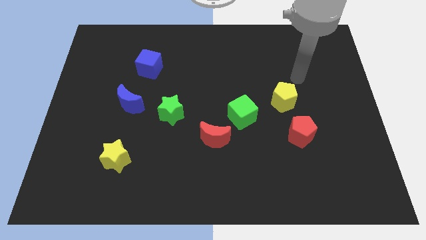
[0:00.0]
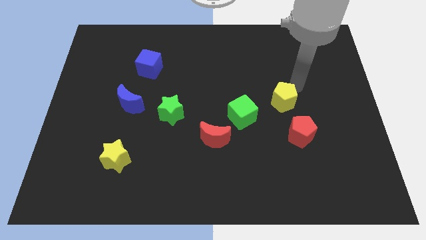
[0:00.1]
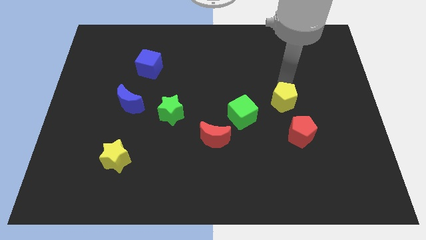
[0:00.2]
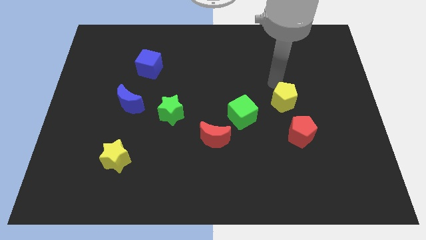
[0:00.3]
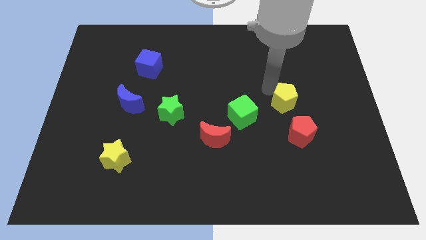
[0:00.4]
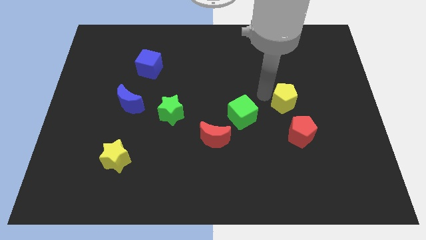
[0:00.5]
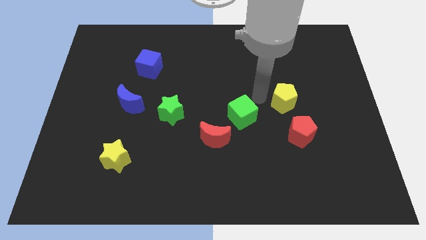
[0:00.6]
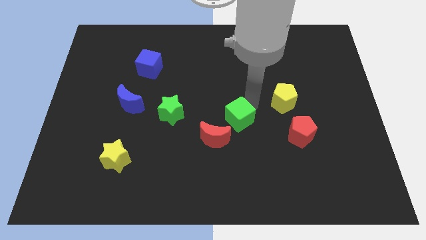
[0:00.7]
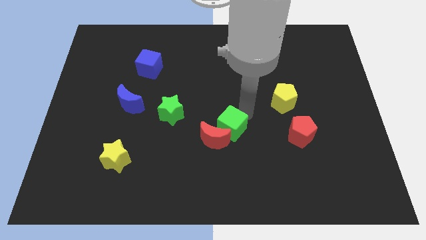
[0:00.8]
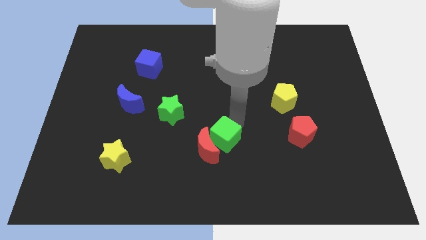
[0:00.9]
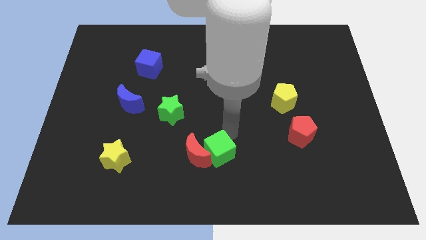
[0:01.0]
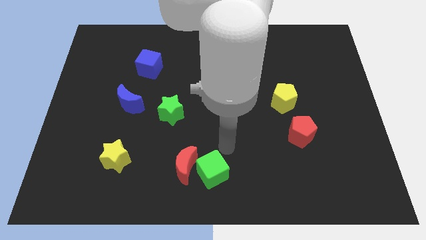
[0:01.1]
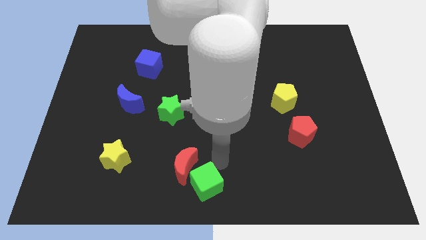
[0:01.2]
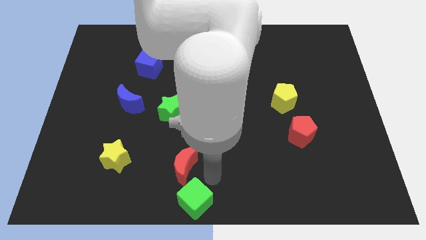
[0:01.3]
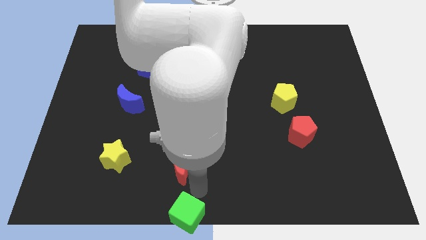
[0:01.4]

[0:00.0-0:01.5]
move the red moon away from the green cube

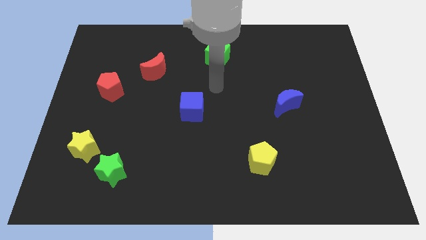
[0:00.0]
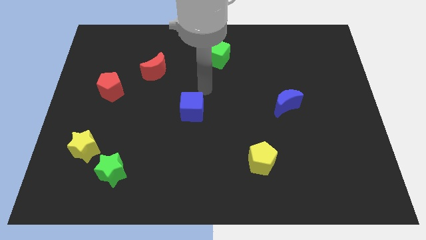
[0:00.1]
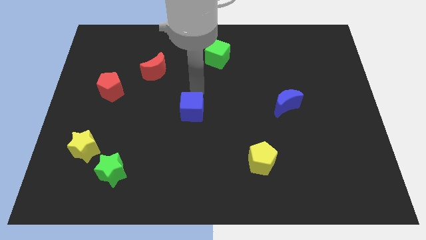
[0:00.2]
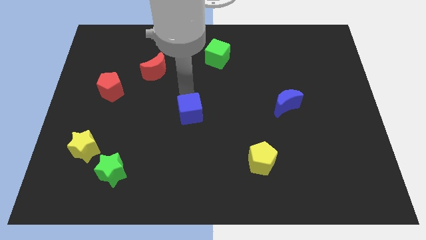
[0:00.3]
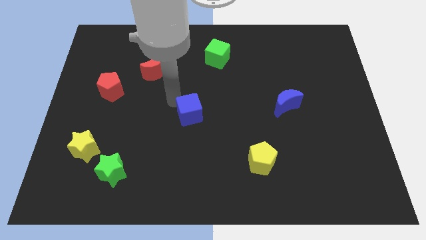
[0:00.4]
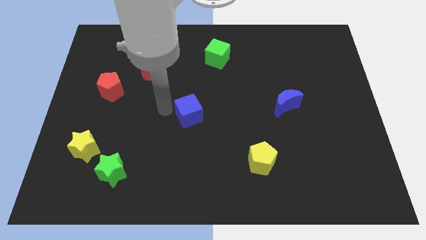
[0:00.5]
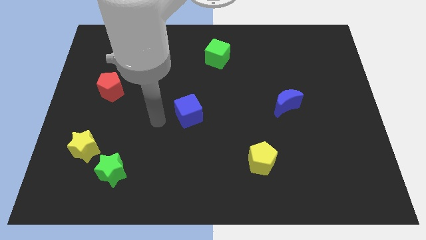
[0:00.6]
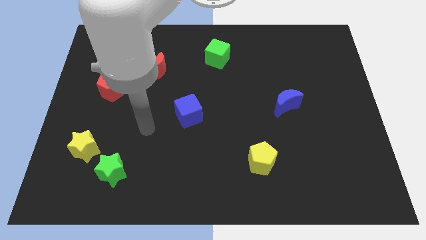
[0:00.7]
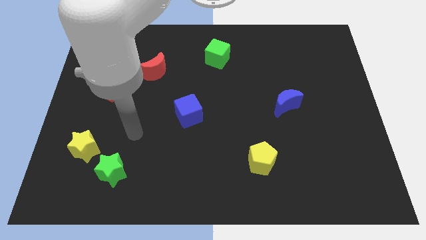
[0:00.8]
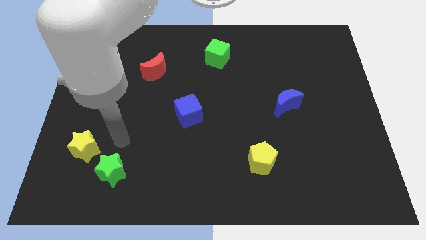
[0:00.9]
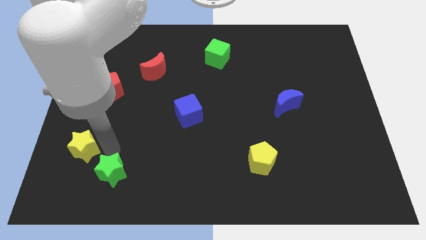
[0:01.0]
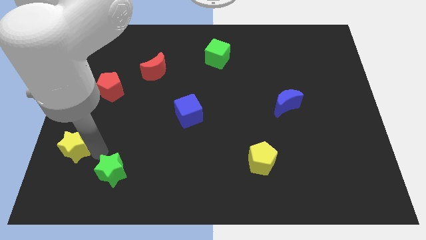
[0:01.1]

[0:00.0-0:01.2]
separate the green star from the yellow star

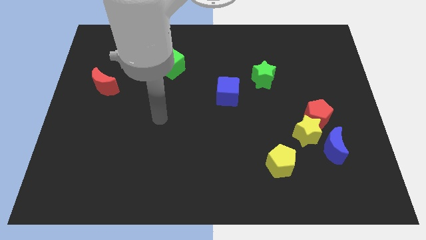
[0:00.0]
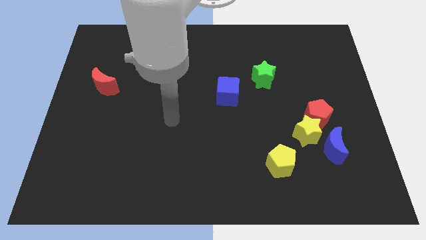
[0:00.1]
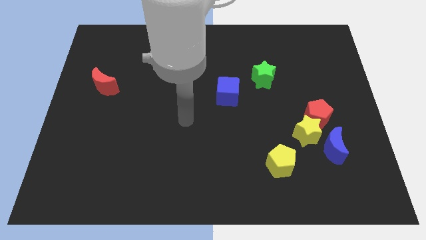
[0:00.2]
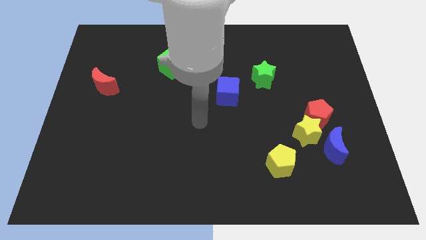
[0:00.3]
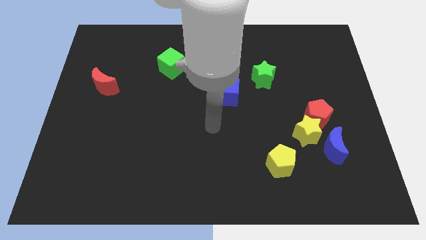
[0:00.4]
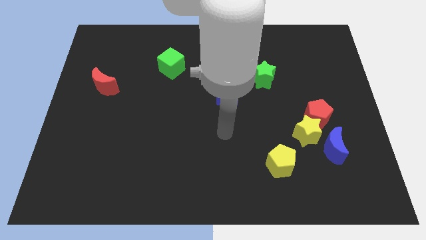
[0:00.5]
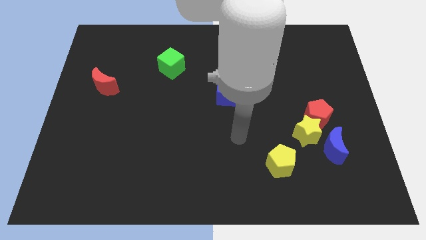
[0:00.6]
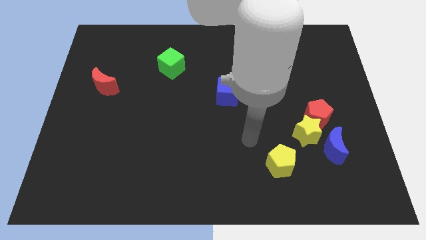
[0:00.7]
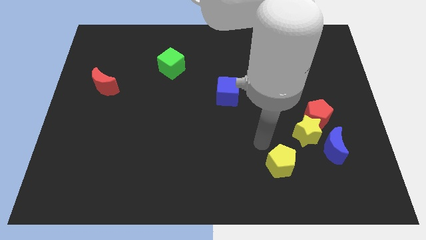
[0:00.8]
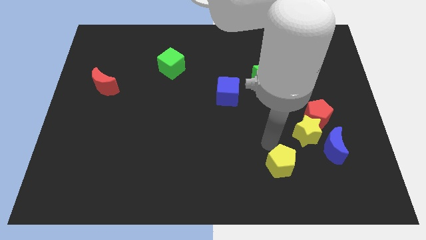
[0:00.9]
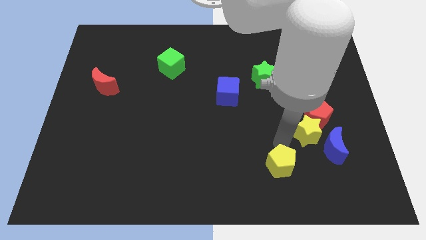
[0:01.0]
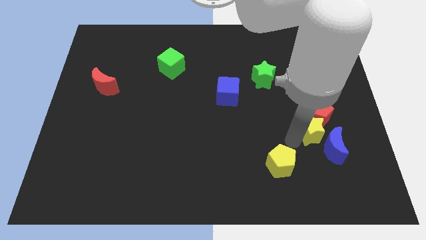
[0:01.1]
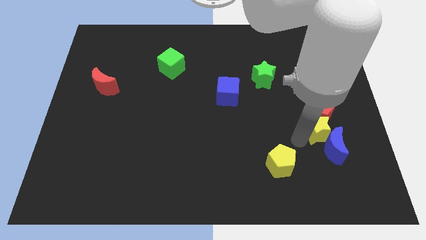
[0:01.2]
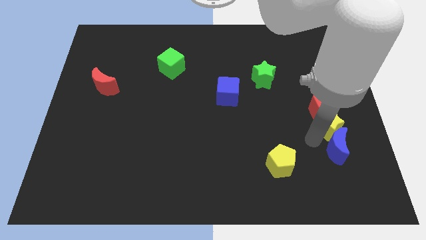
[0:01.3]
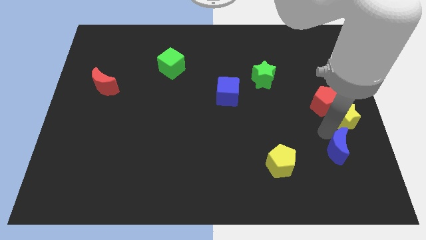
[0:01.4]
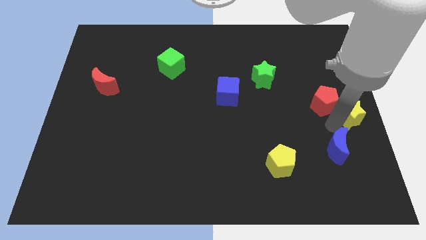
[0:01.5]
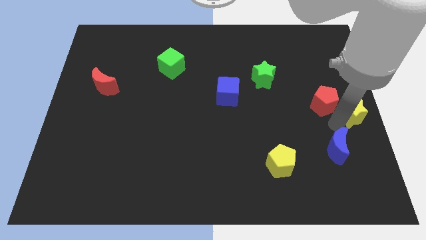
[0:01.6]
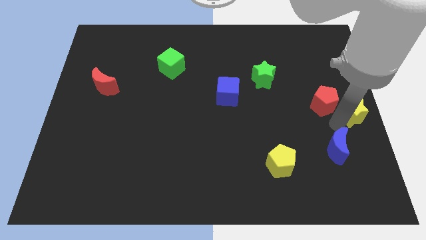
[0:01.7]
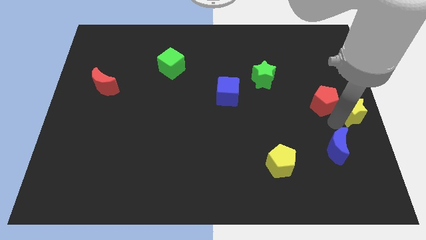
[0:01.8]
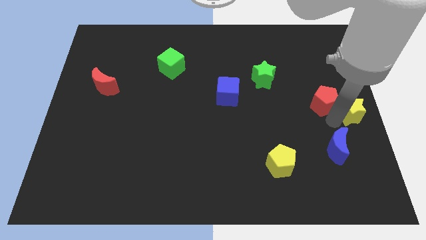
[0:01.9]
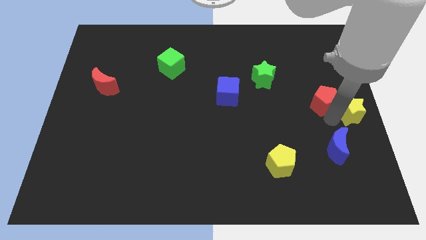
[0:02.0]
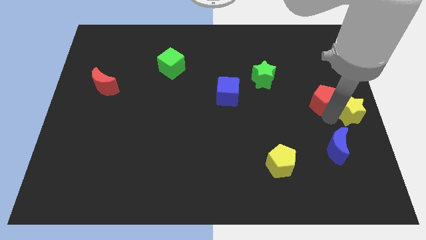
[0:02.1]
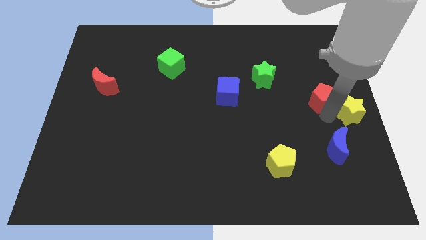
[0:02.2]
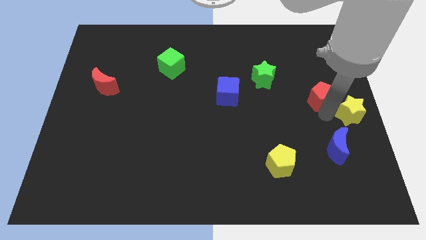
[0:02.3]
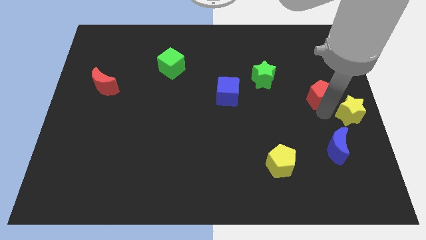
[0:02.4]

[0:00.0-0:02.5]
move the red pentagon away from the yellow star and blue moon

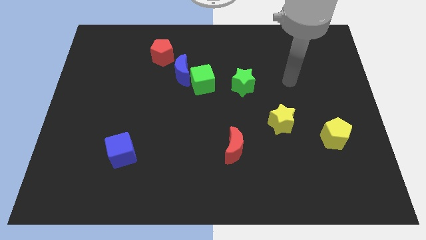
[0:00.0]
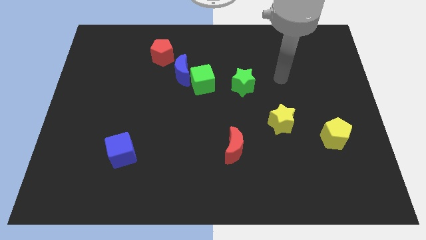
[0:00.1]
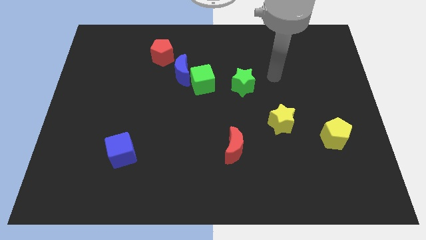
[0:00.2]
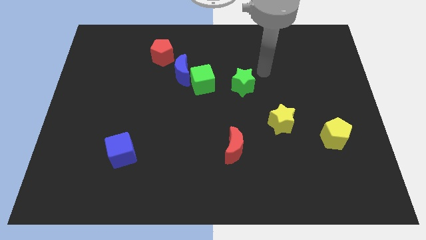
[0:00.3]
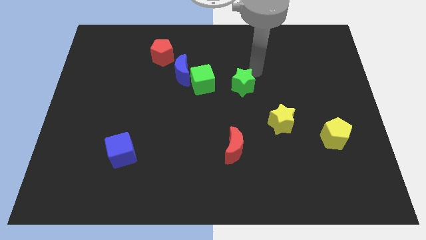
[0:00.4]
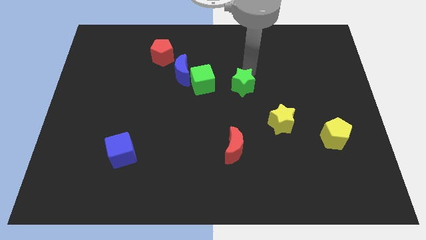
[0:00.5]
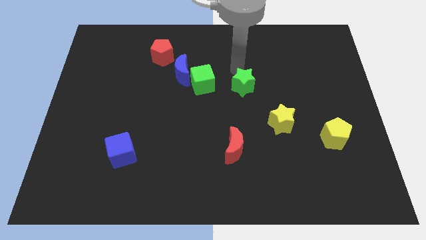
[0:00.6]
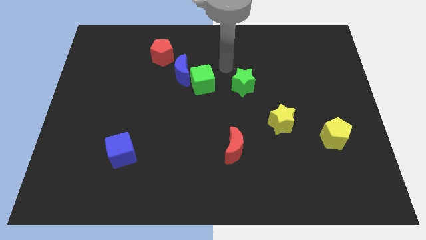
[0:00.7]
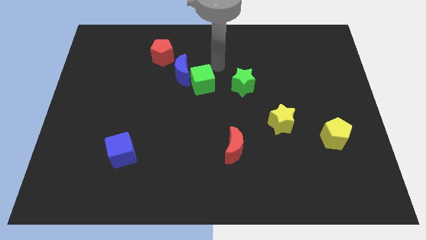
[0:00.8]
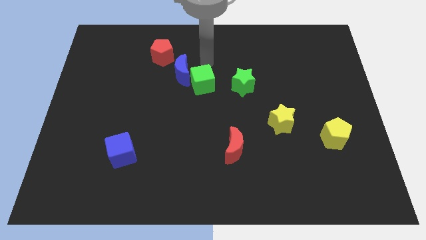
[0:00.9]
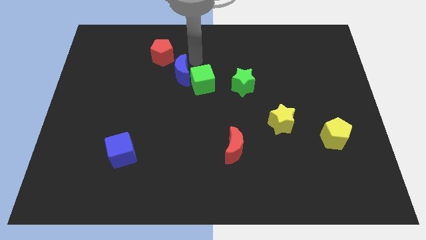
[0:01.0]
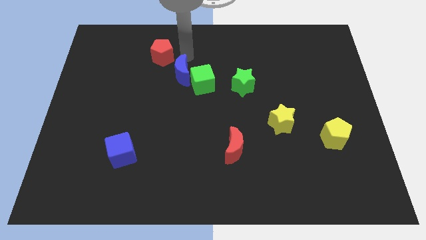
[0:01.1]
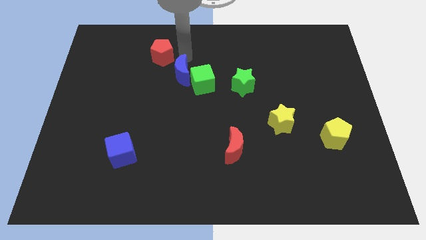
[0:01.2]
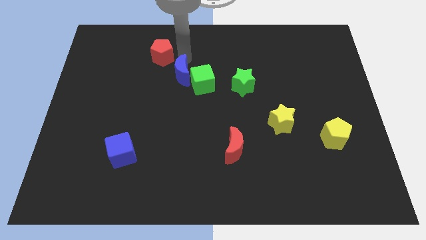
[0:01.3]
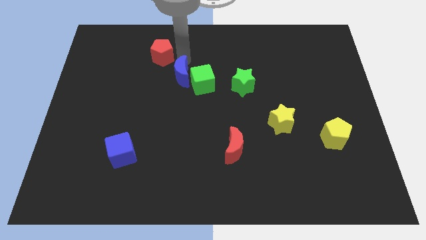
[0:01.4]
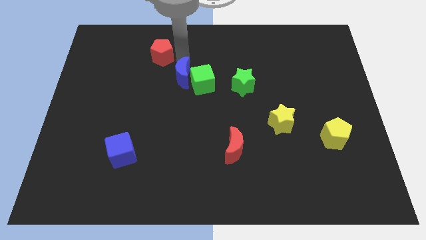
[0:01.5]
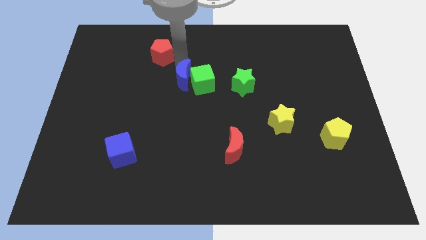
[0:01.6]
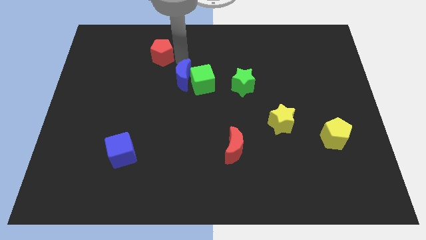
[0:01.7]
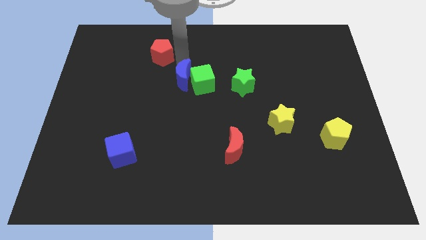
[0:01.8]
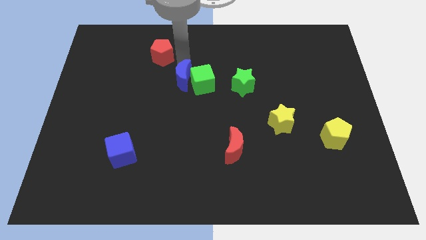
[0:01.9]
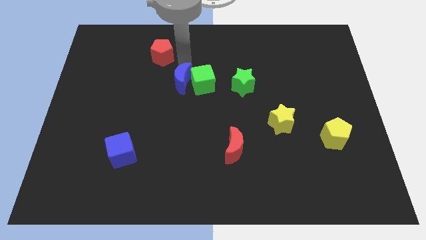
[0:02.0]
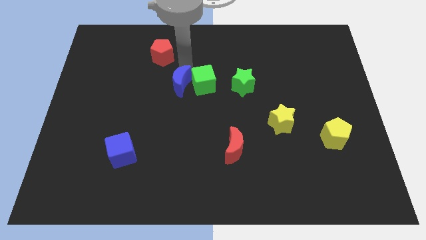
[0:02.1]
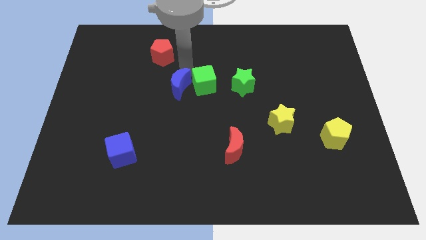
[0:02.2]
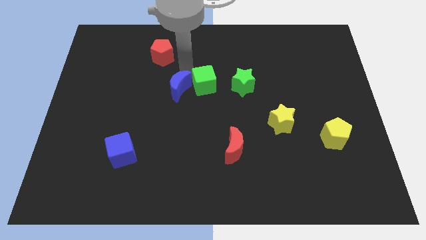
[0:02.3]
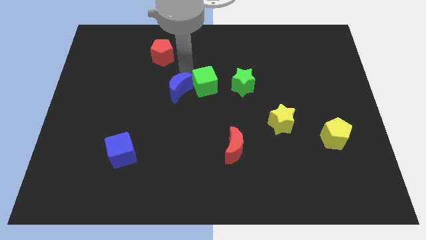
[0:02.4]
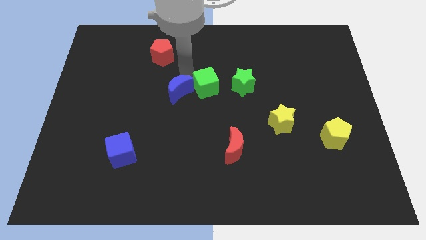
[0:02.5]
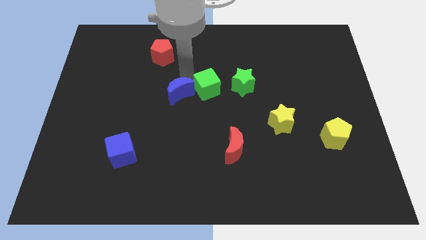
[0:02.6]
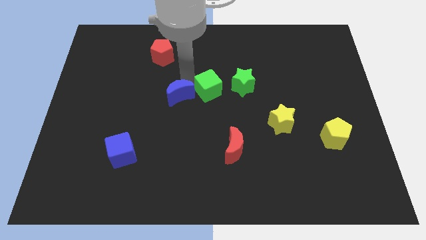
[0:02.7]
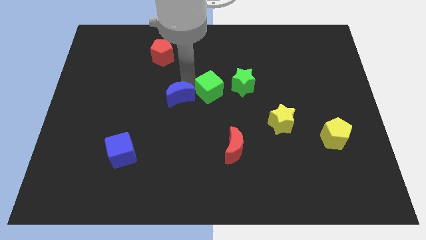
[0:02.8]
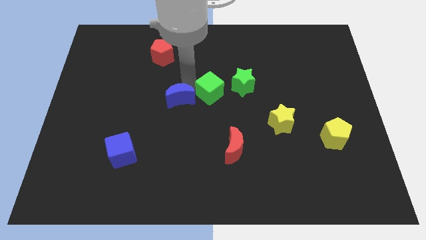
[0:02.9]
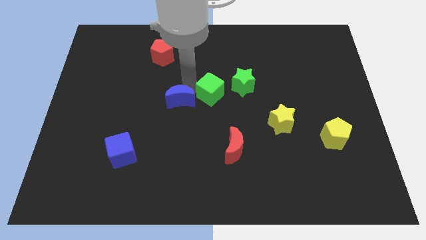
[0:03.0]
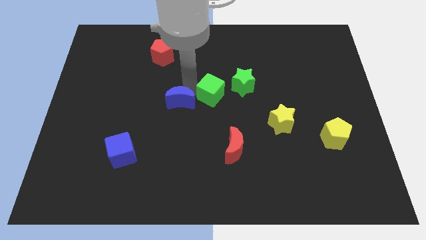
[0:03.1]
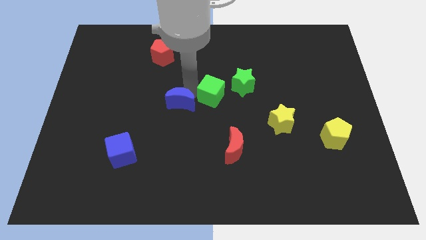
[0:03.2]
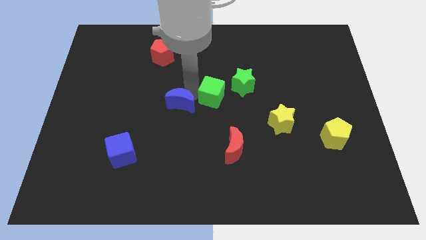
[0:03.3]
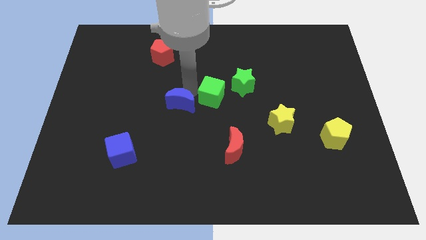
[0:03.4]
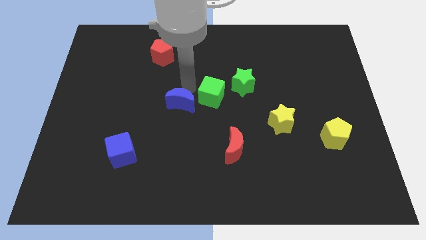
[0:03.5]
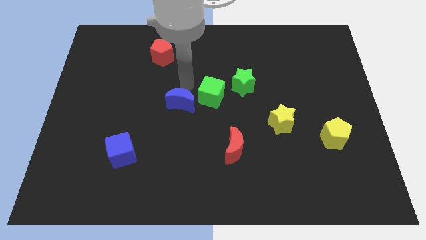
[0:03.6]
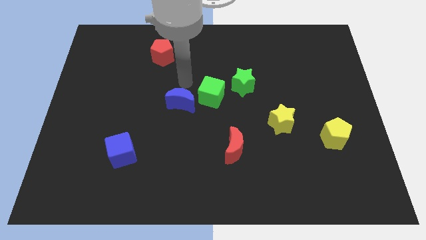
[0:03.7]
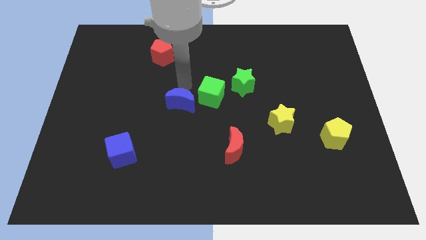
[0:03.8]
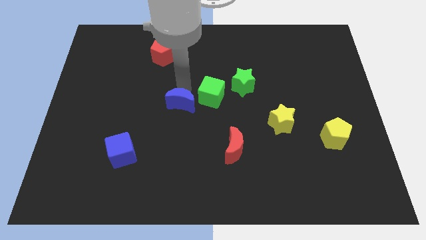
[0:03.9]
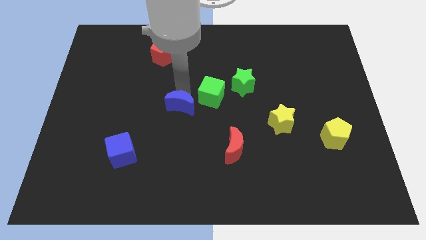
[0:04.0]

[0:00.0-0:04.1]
pull the blue moon apart from the green cube and red pentagon

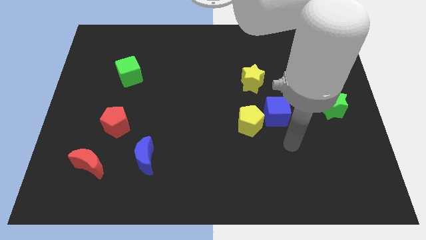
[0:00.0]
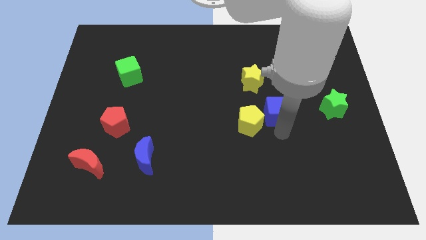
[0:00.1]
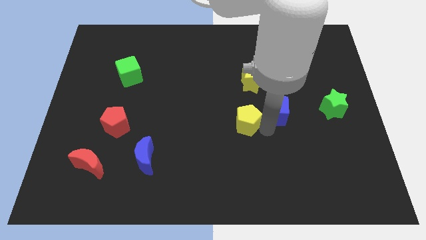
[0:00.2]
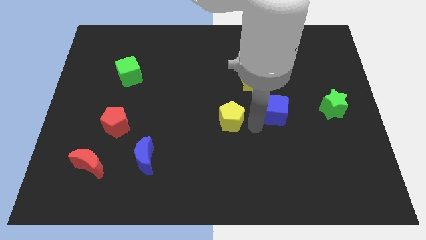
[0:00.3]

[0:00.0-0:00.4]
move the blue cube away from the yellow pentagon
